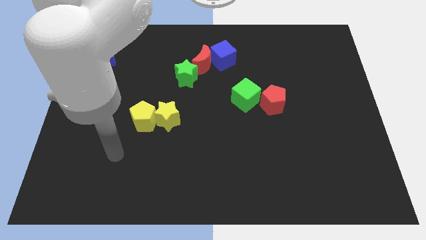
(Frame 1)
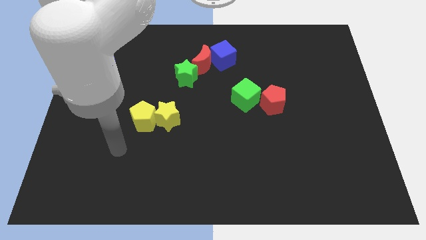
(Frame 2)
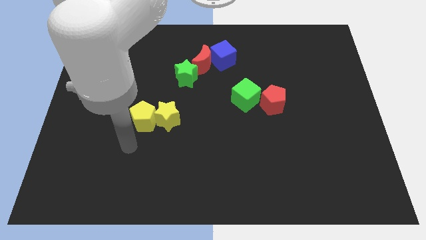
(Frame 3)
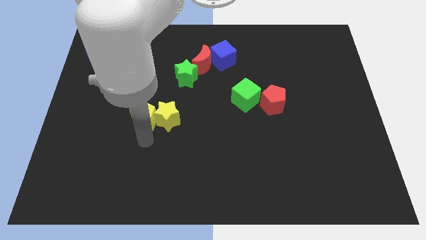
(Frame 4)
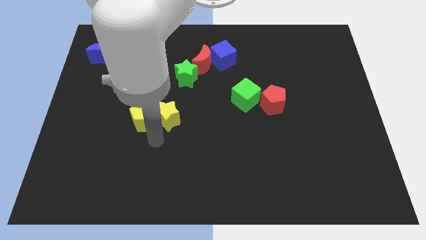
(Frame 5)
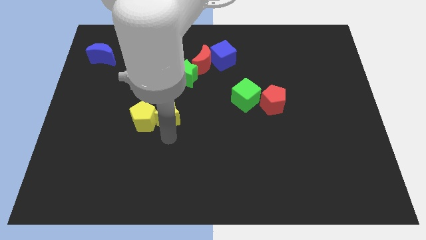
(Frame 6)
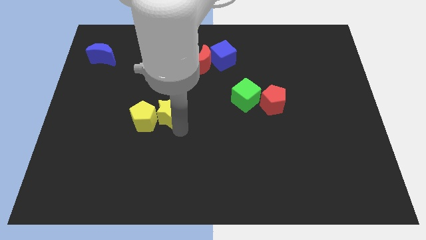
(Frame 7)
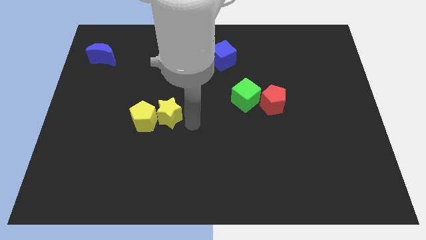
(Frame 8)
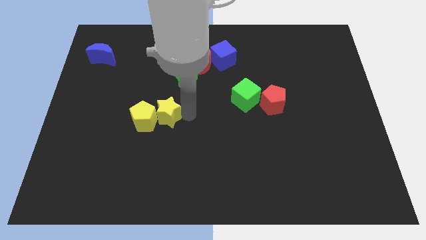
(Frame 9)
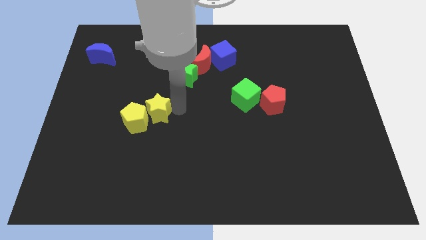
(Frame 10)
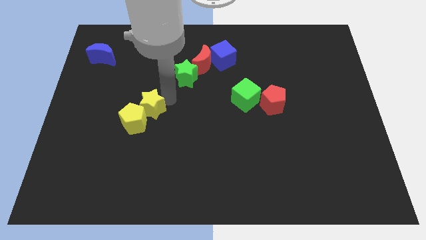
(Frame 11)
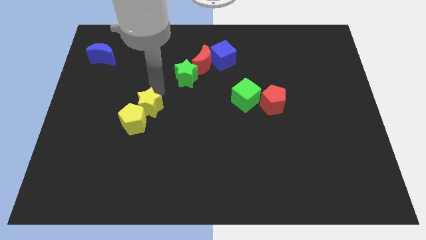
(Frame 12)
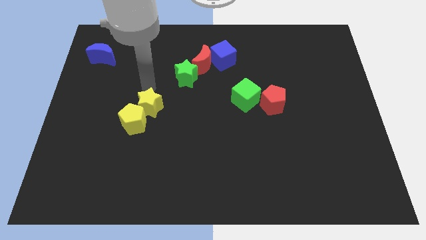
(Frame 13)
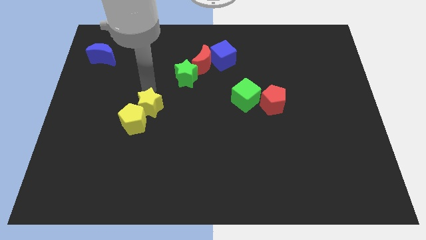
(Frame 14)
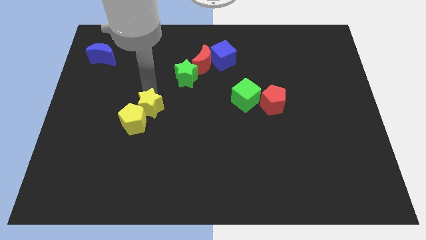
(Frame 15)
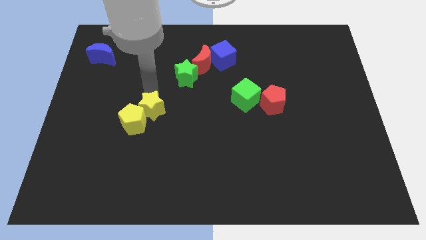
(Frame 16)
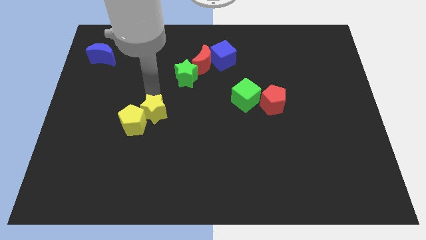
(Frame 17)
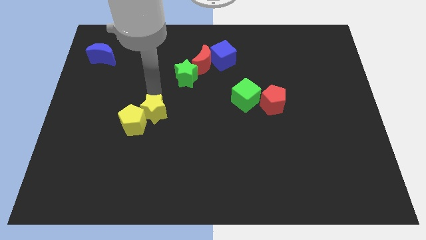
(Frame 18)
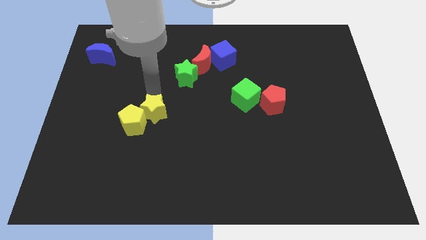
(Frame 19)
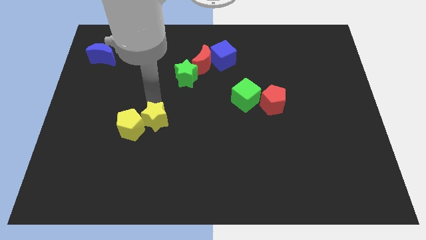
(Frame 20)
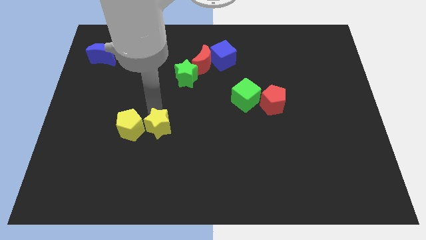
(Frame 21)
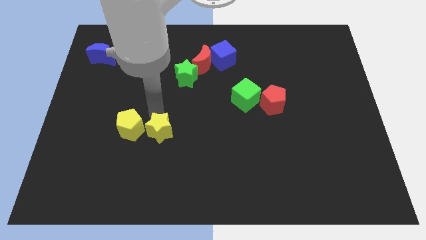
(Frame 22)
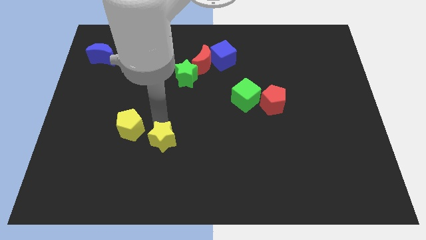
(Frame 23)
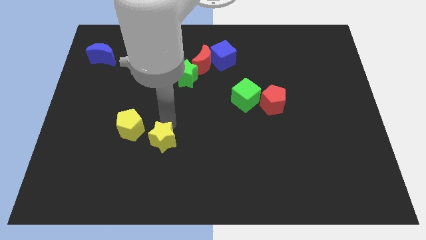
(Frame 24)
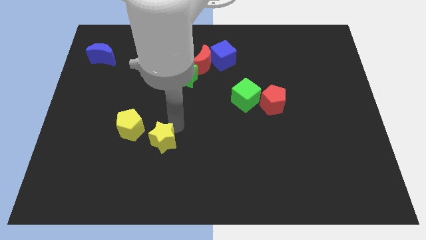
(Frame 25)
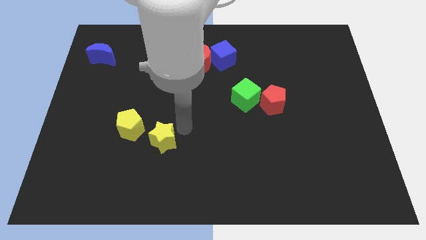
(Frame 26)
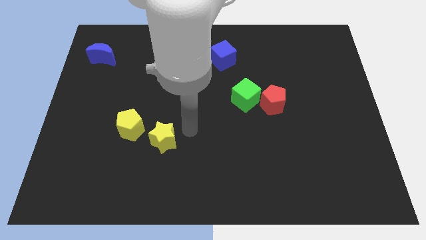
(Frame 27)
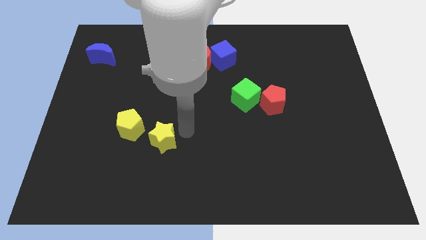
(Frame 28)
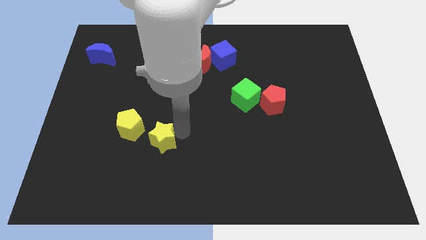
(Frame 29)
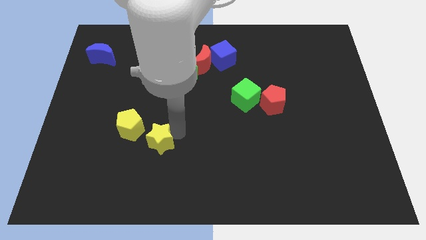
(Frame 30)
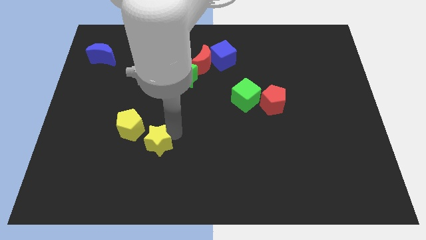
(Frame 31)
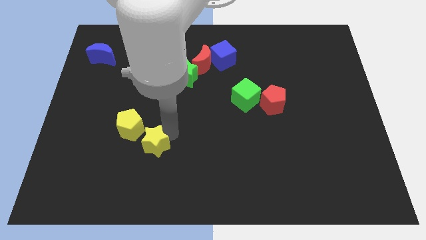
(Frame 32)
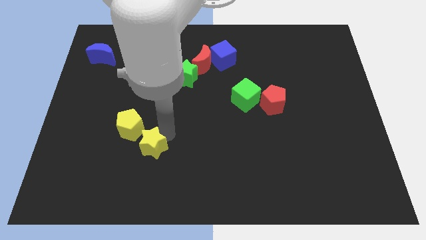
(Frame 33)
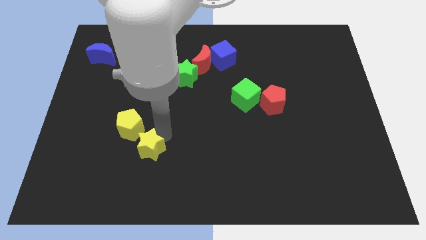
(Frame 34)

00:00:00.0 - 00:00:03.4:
push the yellow star a little downwards and left diagonally

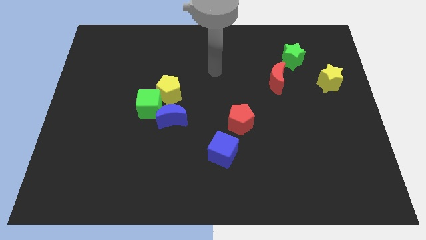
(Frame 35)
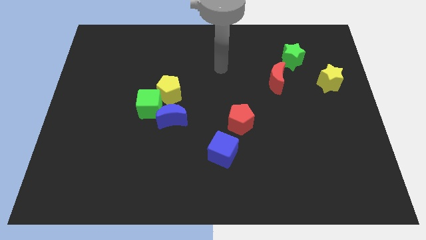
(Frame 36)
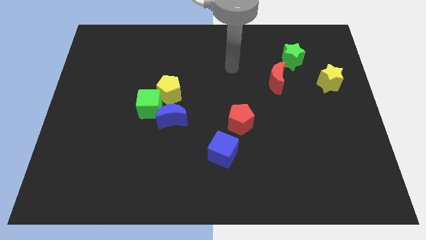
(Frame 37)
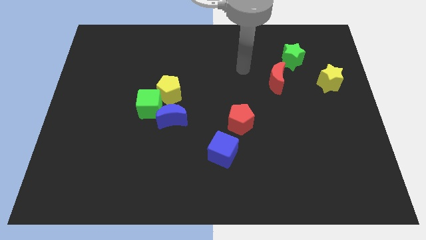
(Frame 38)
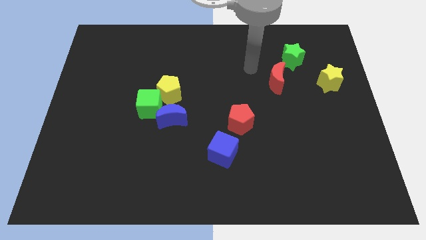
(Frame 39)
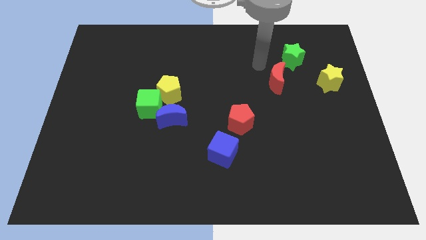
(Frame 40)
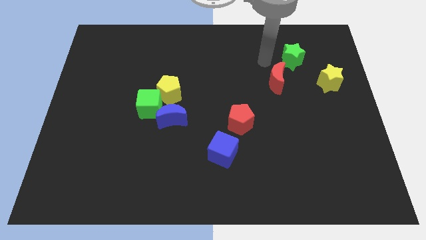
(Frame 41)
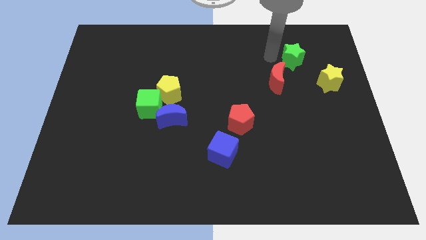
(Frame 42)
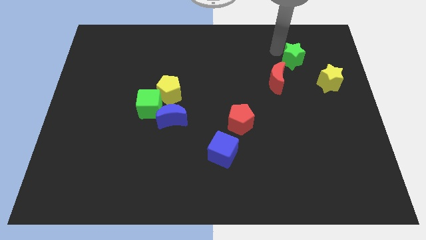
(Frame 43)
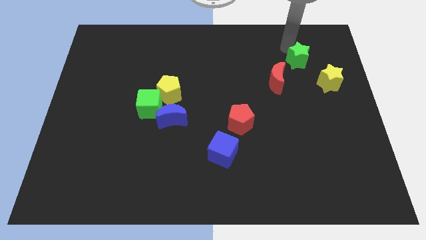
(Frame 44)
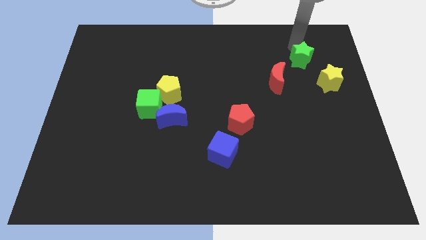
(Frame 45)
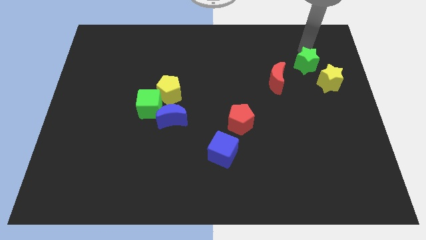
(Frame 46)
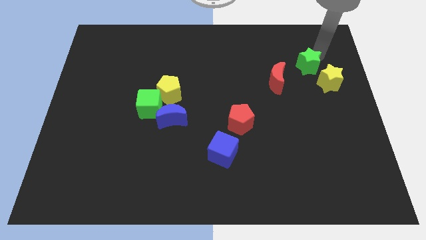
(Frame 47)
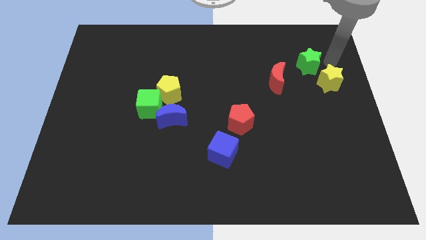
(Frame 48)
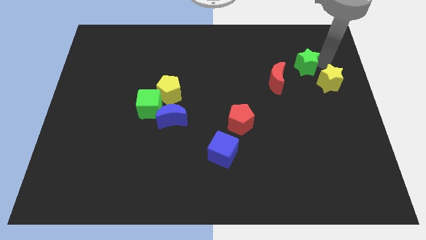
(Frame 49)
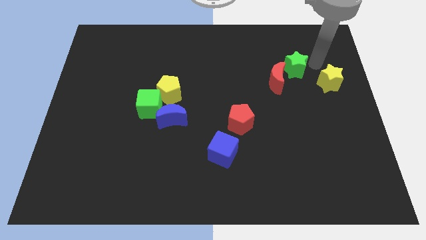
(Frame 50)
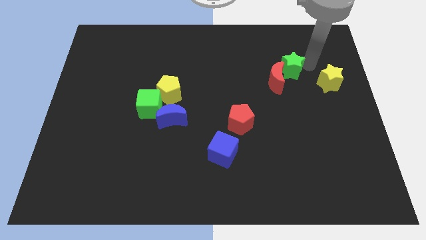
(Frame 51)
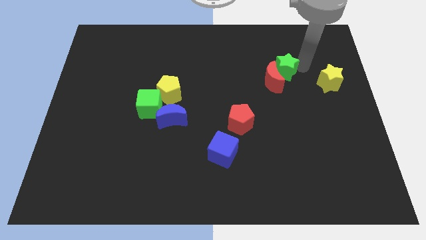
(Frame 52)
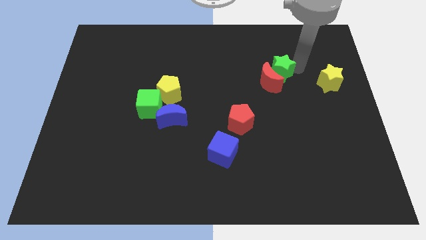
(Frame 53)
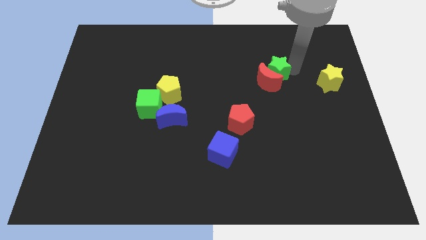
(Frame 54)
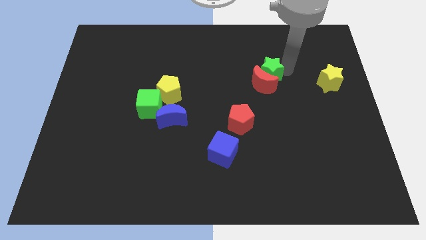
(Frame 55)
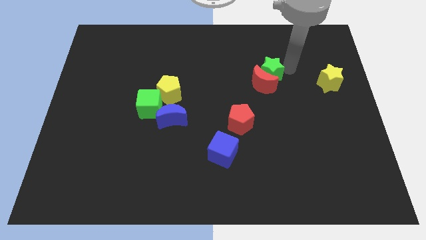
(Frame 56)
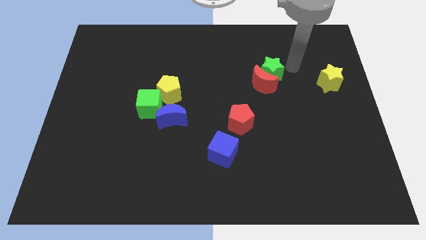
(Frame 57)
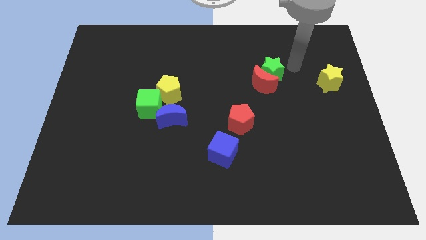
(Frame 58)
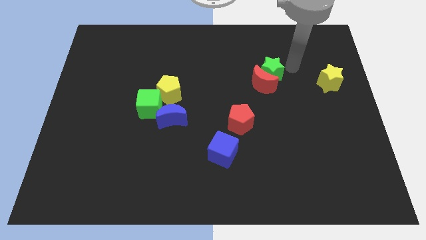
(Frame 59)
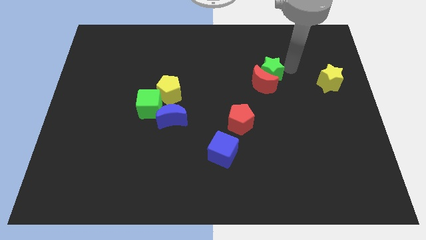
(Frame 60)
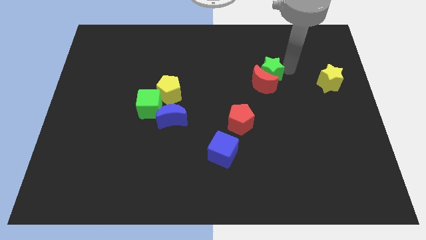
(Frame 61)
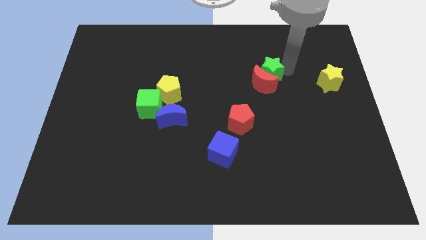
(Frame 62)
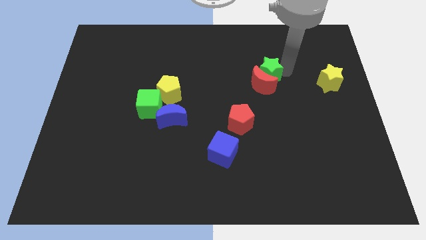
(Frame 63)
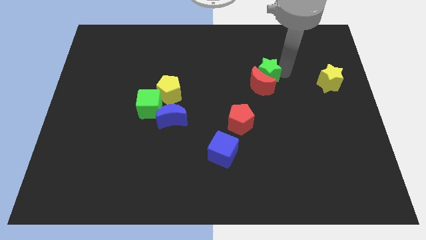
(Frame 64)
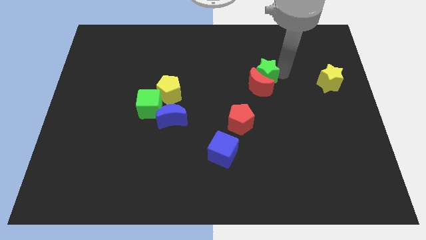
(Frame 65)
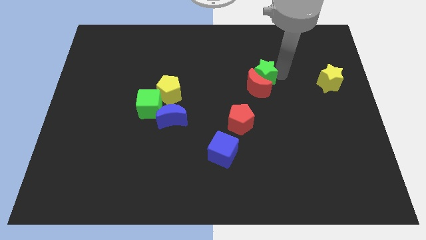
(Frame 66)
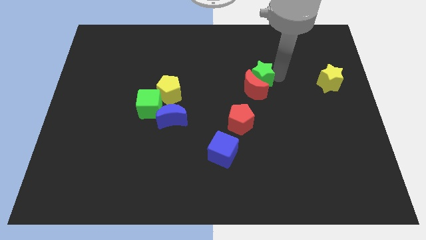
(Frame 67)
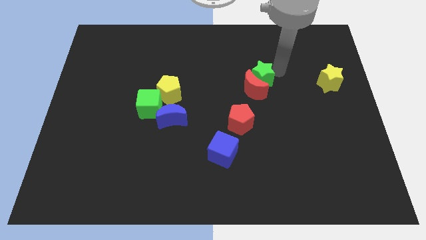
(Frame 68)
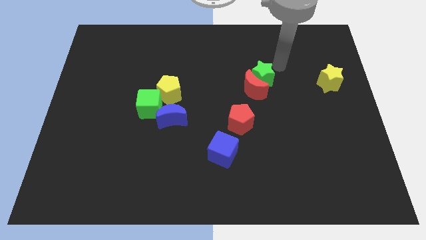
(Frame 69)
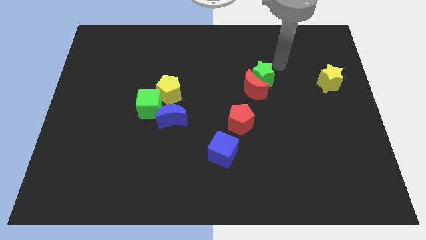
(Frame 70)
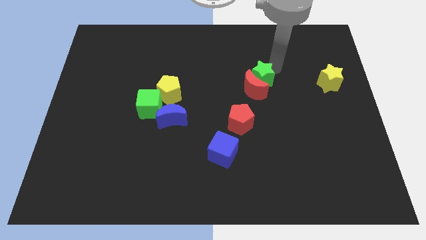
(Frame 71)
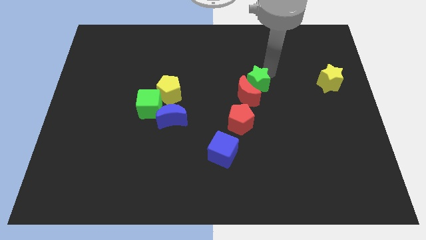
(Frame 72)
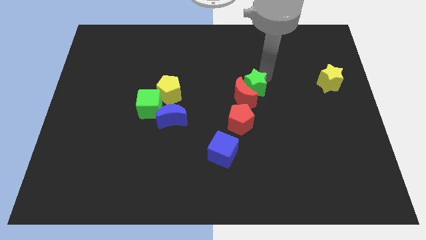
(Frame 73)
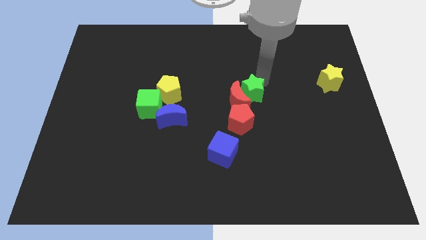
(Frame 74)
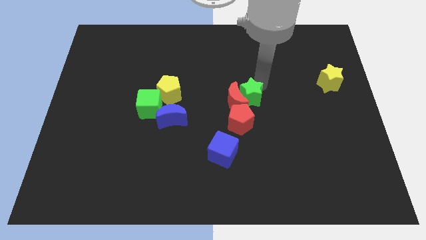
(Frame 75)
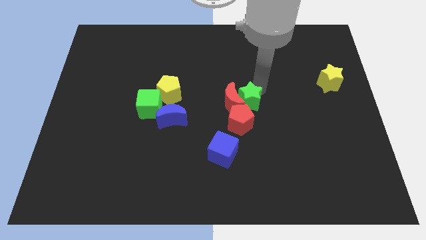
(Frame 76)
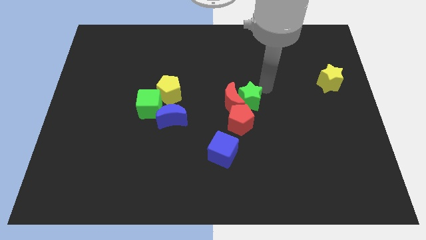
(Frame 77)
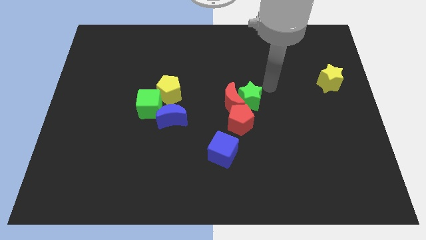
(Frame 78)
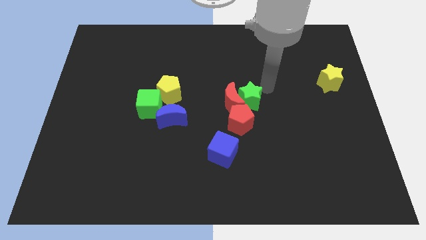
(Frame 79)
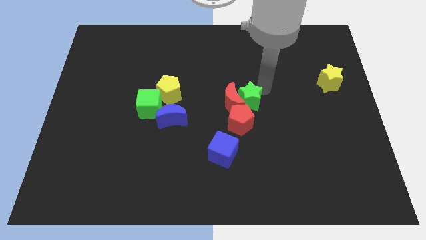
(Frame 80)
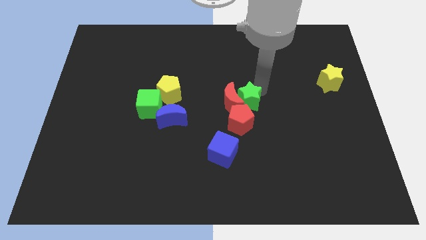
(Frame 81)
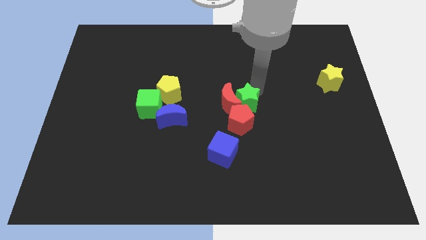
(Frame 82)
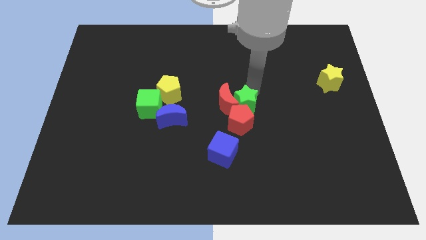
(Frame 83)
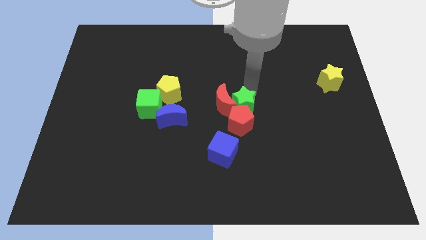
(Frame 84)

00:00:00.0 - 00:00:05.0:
move the green star diagonally downwards and left

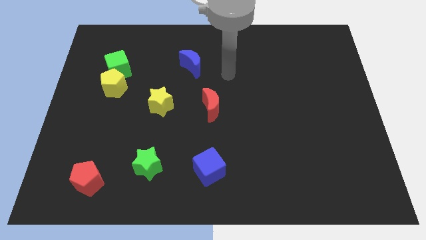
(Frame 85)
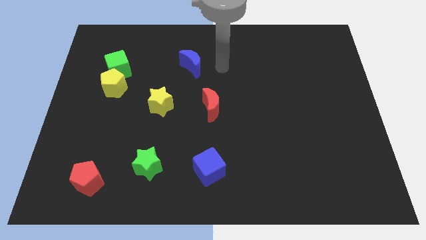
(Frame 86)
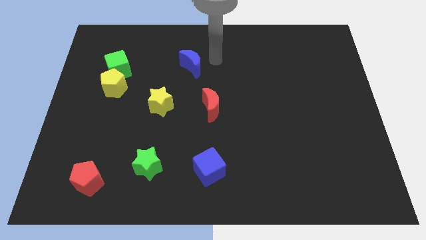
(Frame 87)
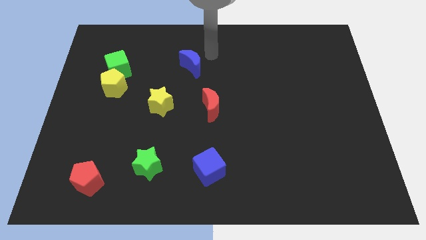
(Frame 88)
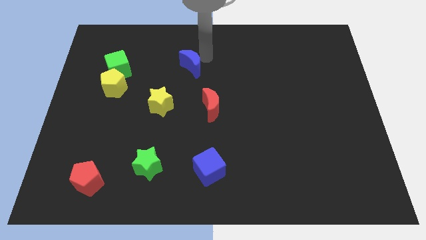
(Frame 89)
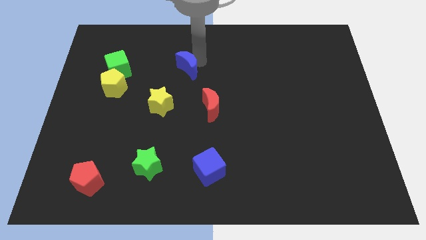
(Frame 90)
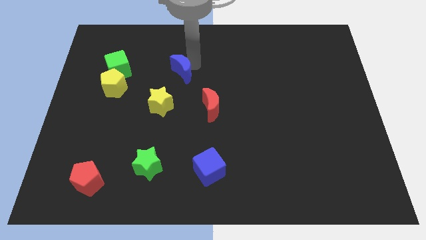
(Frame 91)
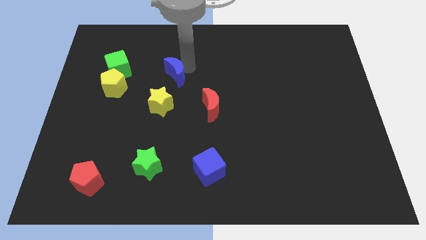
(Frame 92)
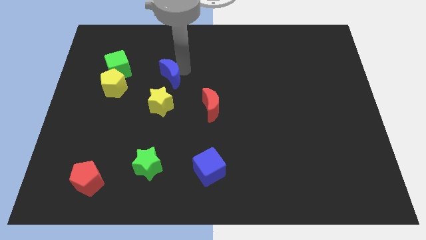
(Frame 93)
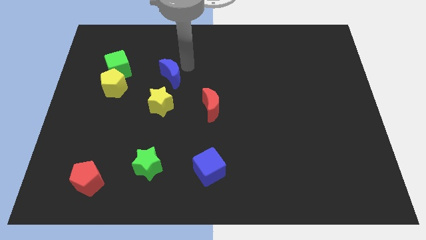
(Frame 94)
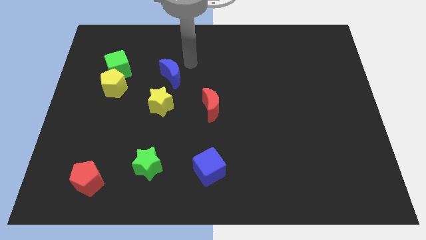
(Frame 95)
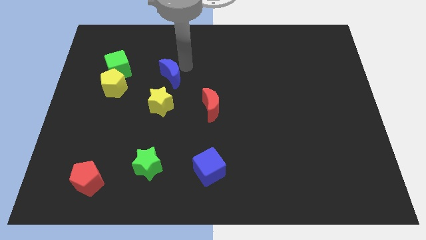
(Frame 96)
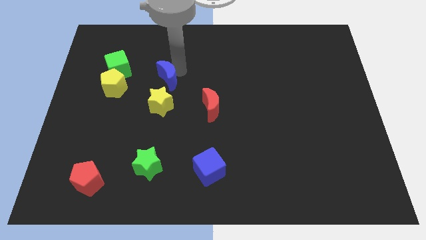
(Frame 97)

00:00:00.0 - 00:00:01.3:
slightly move the blue moon down and to the left
